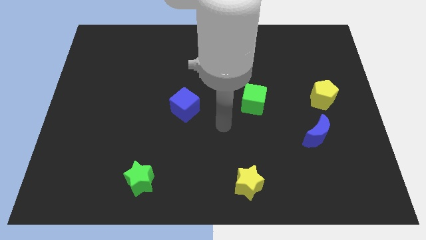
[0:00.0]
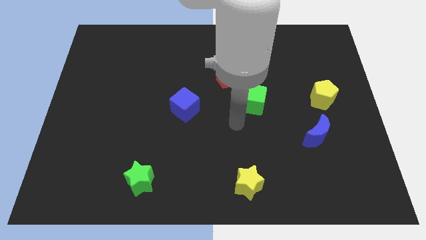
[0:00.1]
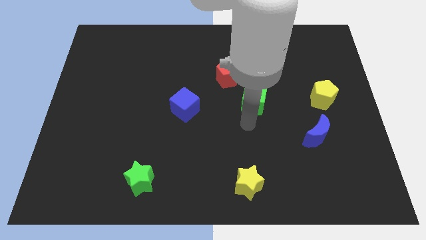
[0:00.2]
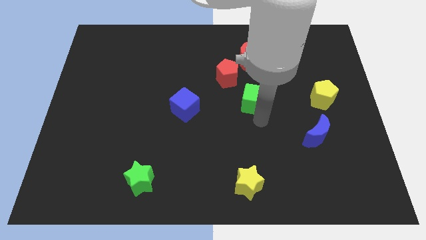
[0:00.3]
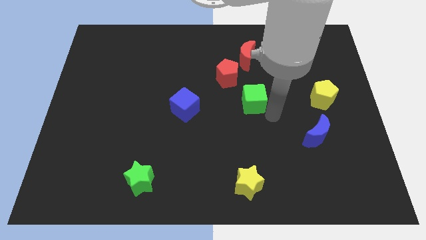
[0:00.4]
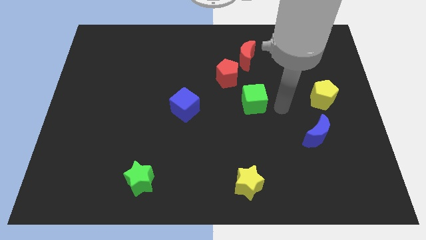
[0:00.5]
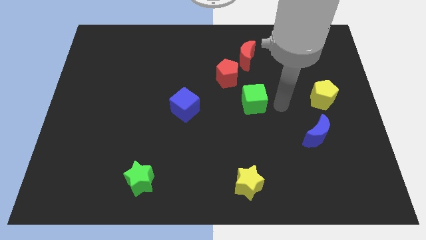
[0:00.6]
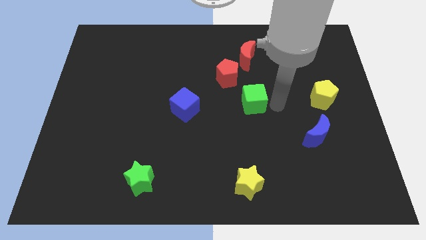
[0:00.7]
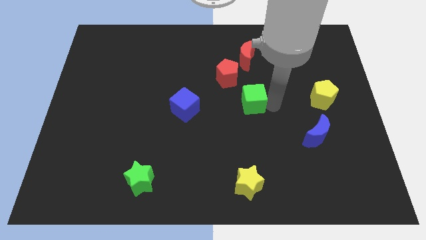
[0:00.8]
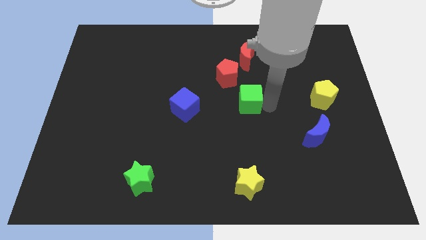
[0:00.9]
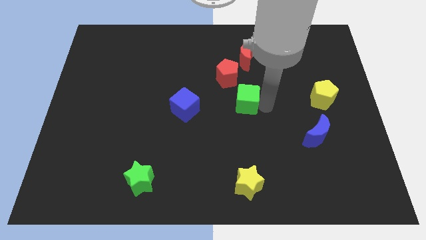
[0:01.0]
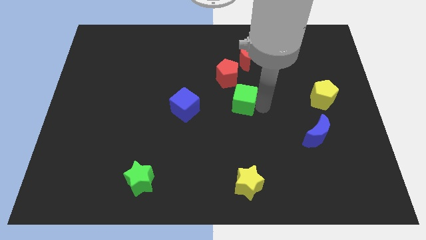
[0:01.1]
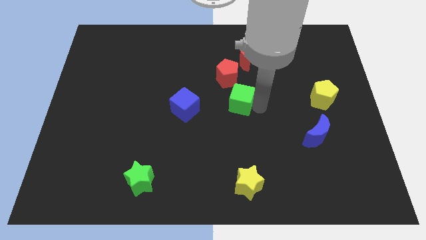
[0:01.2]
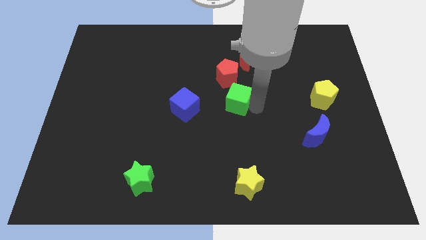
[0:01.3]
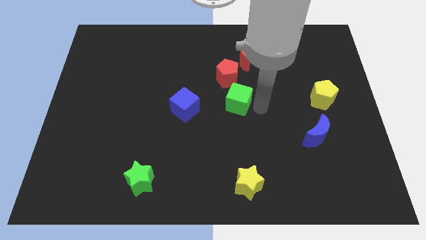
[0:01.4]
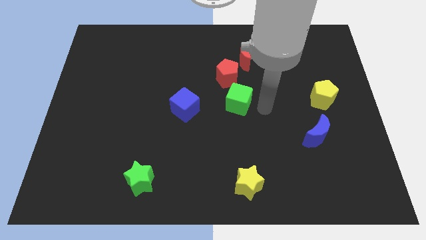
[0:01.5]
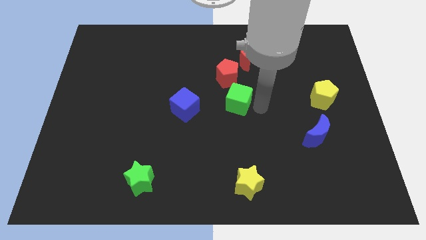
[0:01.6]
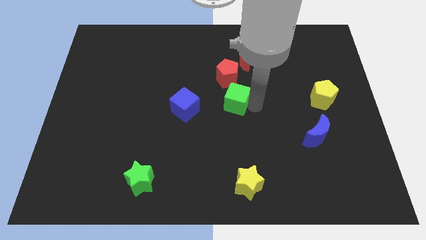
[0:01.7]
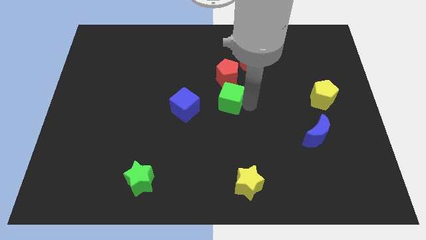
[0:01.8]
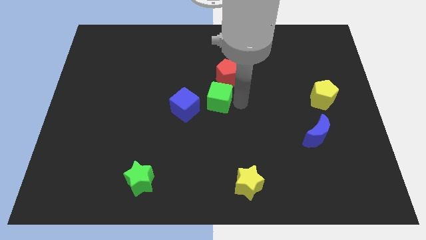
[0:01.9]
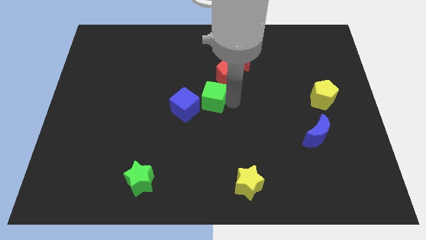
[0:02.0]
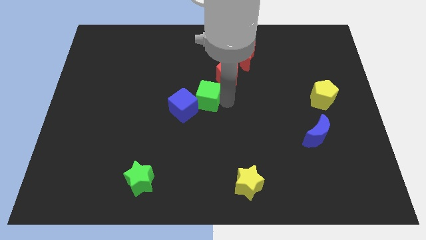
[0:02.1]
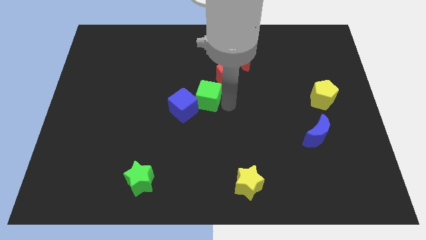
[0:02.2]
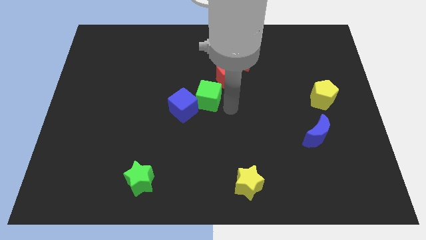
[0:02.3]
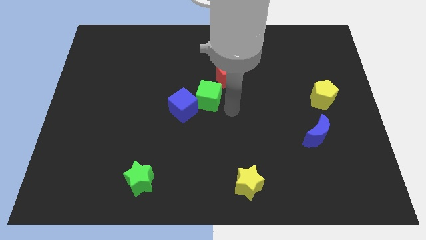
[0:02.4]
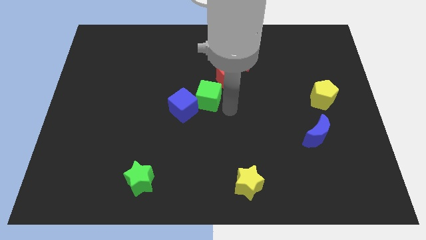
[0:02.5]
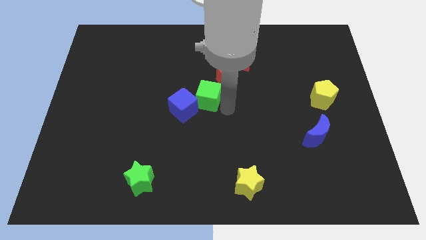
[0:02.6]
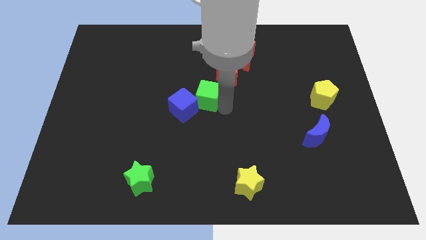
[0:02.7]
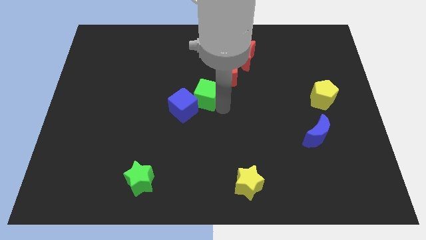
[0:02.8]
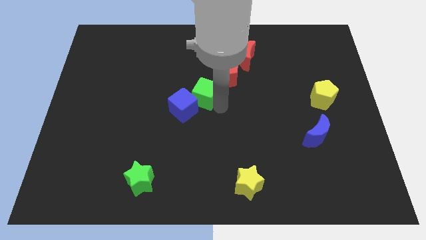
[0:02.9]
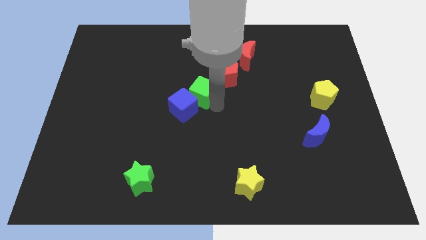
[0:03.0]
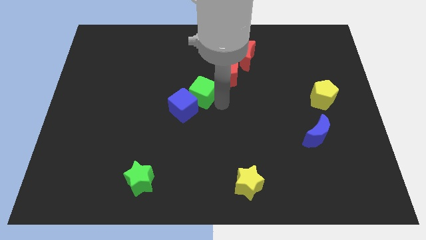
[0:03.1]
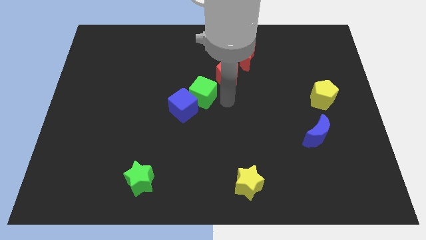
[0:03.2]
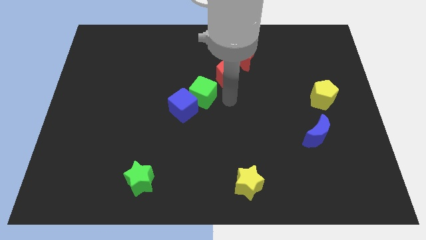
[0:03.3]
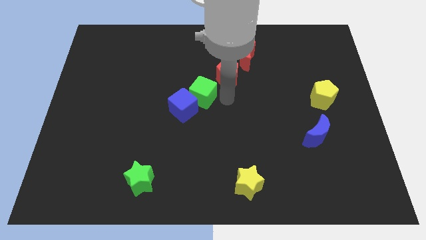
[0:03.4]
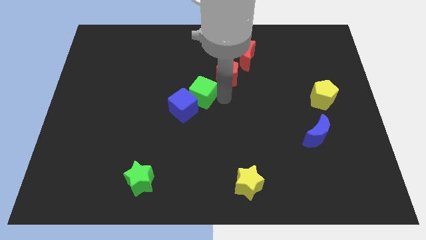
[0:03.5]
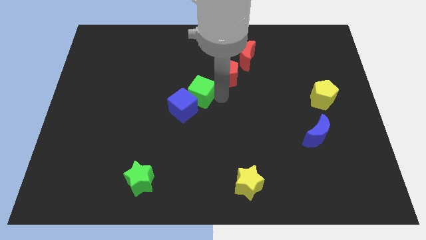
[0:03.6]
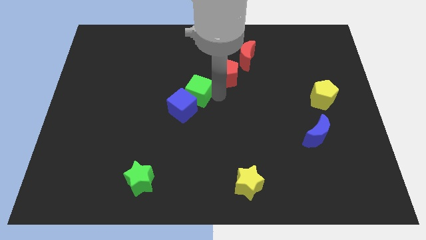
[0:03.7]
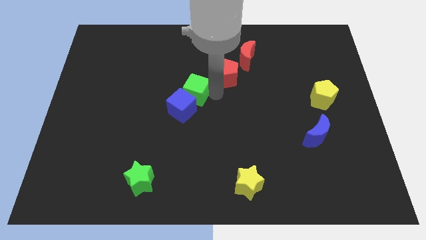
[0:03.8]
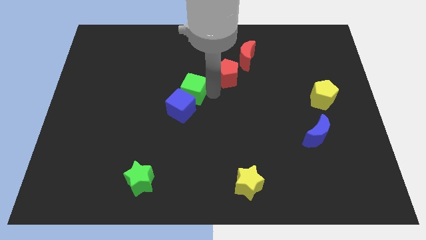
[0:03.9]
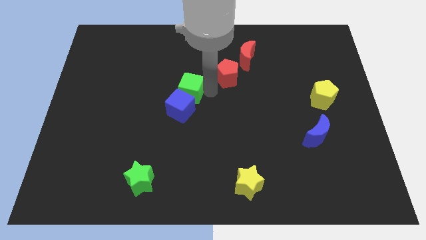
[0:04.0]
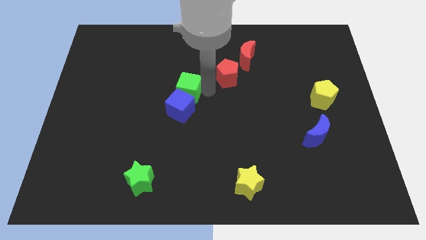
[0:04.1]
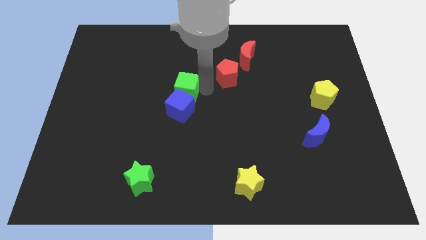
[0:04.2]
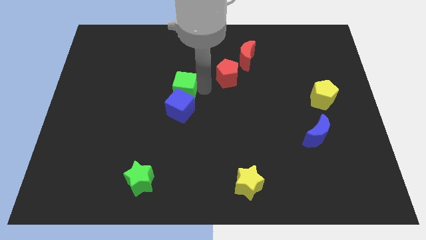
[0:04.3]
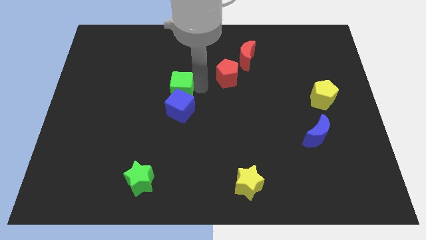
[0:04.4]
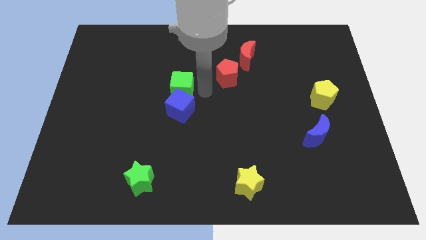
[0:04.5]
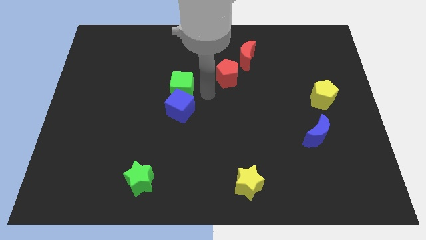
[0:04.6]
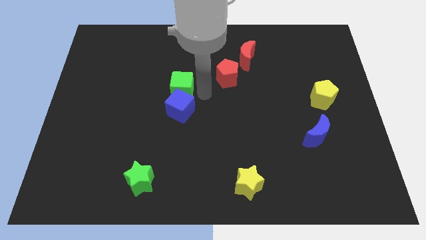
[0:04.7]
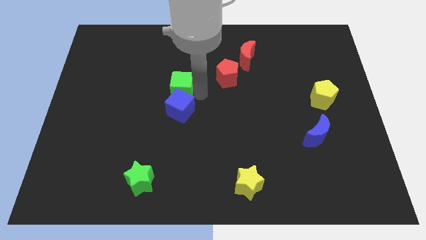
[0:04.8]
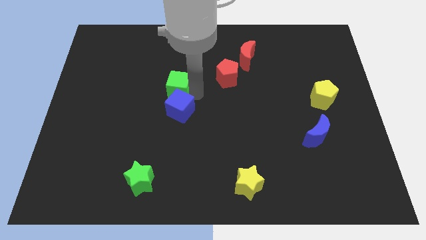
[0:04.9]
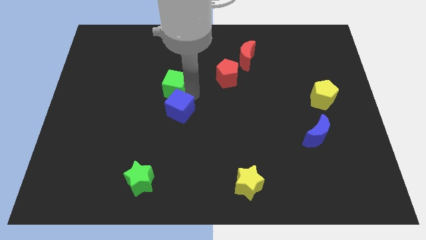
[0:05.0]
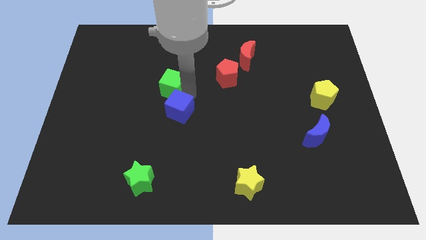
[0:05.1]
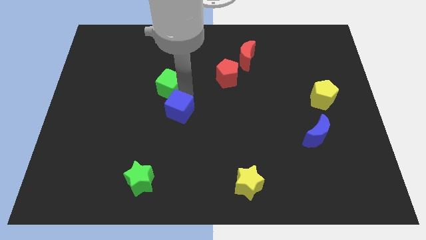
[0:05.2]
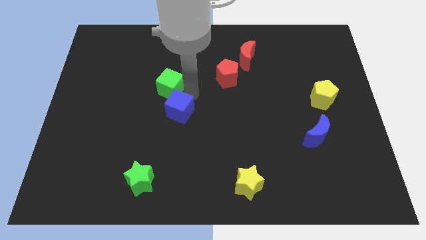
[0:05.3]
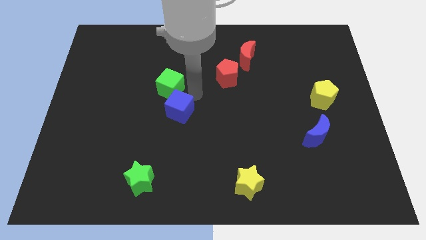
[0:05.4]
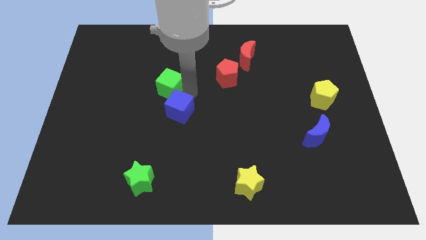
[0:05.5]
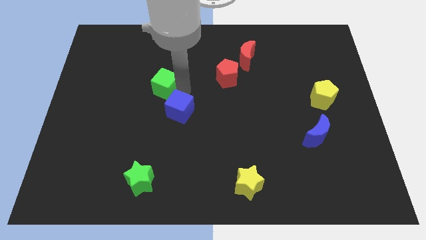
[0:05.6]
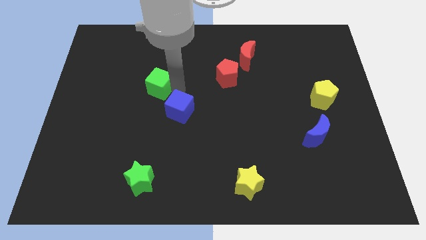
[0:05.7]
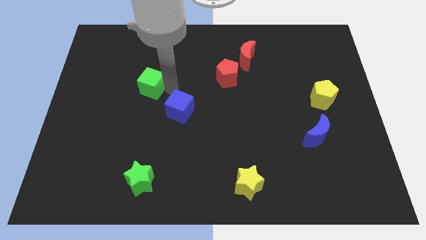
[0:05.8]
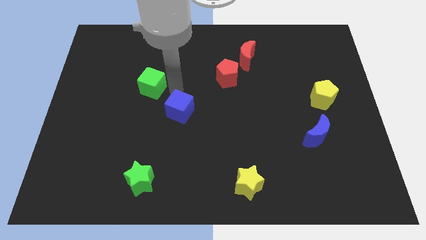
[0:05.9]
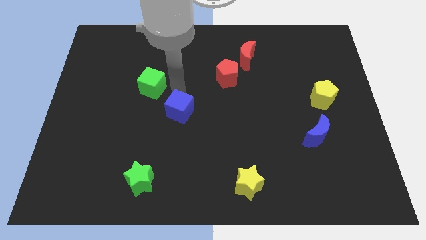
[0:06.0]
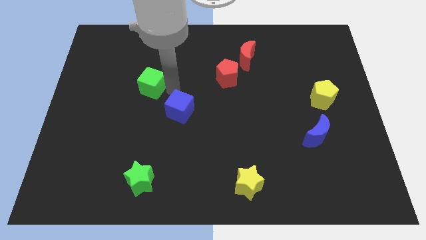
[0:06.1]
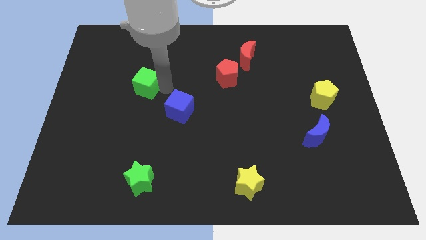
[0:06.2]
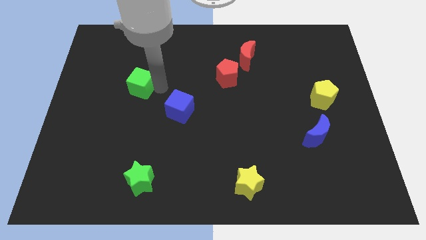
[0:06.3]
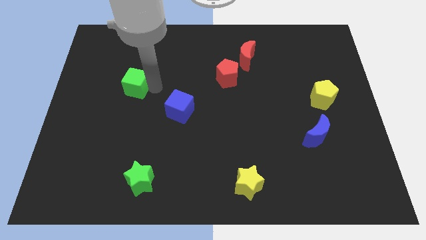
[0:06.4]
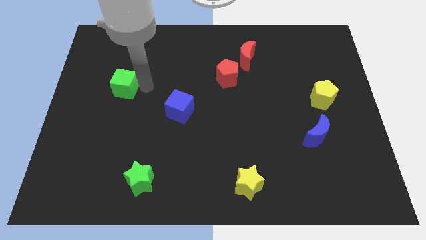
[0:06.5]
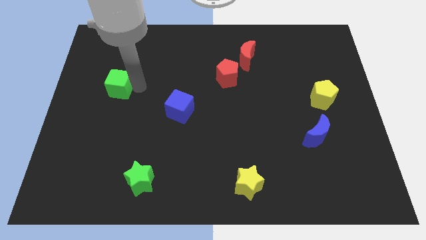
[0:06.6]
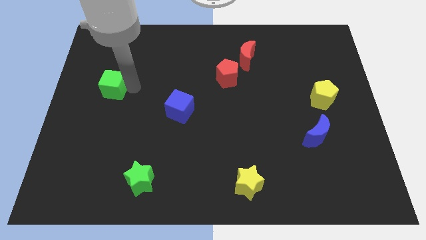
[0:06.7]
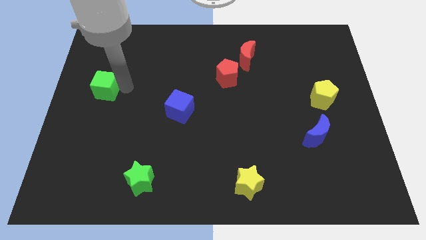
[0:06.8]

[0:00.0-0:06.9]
slide the green cube to the left side of the board
